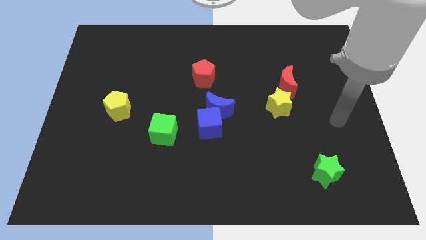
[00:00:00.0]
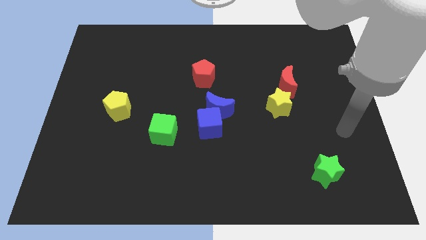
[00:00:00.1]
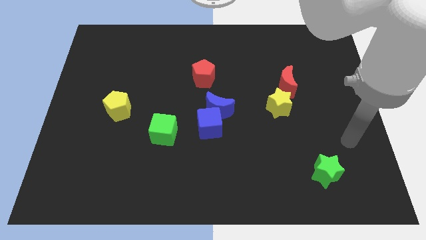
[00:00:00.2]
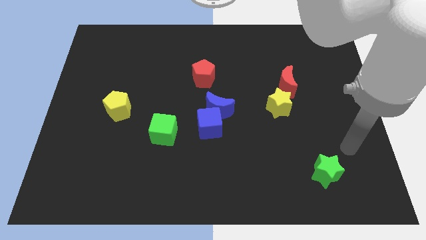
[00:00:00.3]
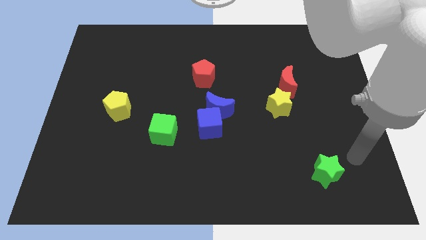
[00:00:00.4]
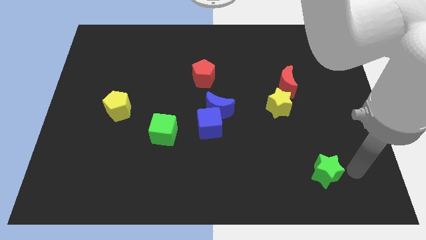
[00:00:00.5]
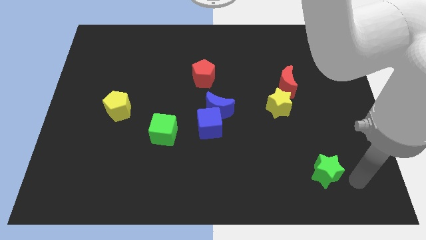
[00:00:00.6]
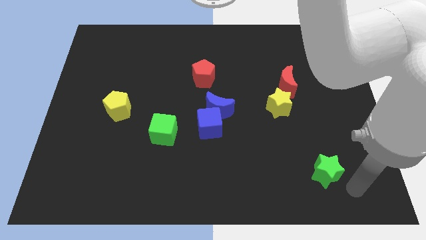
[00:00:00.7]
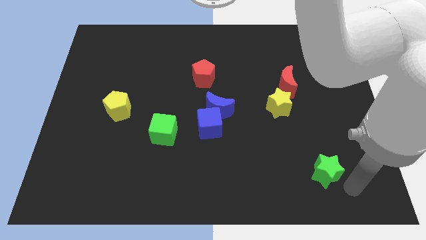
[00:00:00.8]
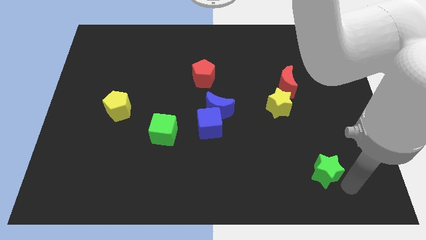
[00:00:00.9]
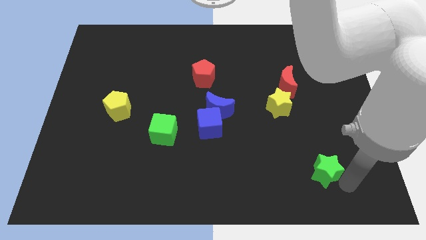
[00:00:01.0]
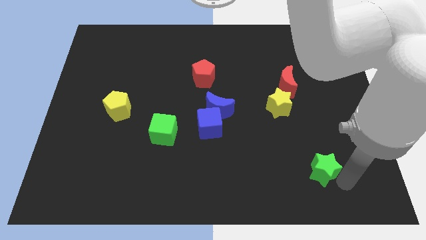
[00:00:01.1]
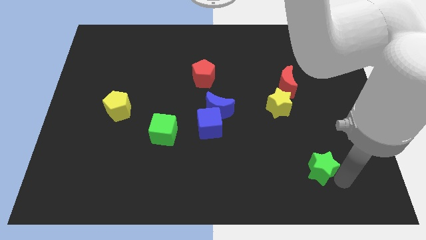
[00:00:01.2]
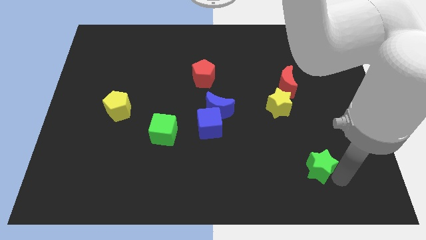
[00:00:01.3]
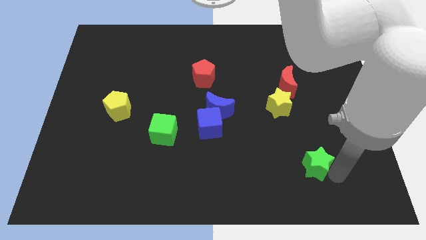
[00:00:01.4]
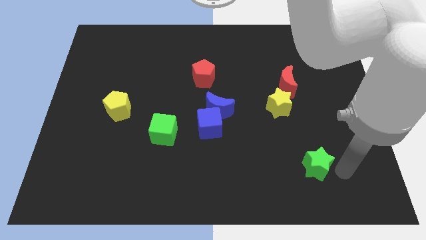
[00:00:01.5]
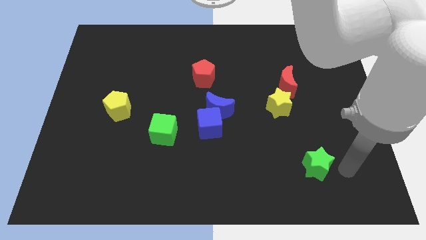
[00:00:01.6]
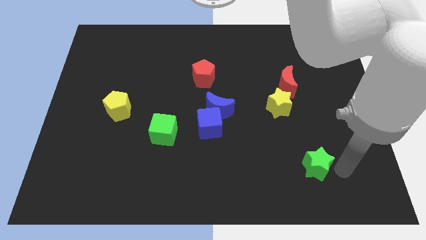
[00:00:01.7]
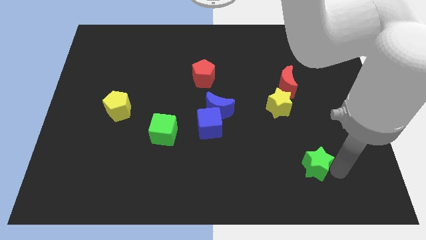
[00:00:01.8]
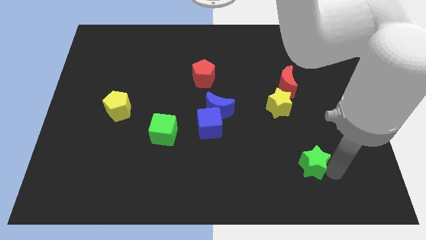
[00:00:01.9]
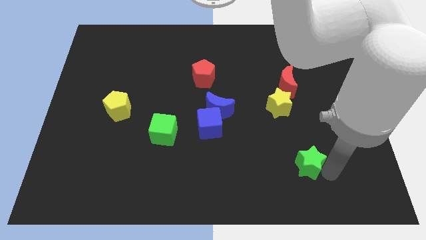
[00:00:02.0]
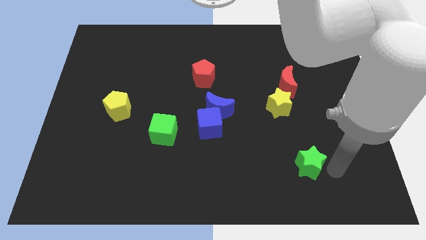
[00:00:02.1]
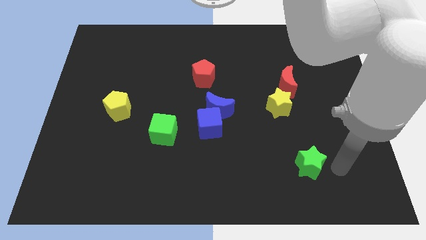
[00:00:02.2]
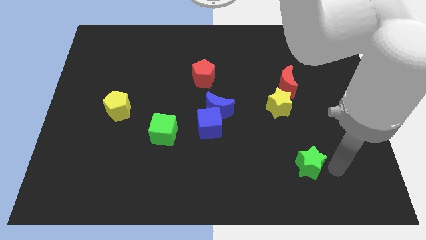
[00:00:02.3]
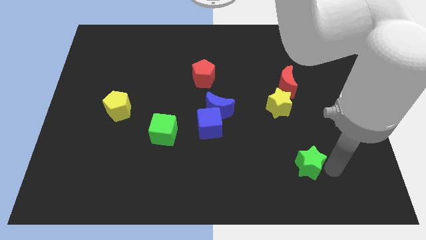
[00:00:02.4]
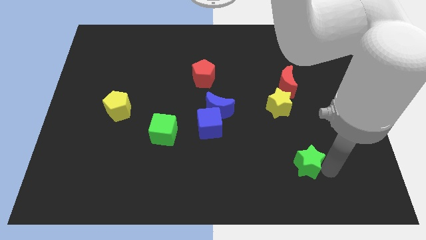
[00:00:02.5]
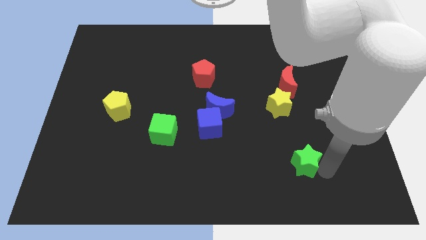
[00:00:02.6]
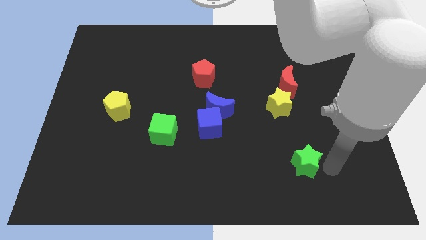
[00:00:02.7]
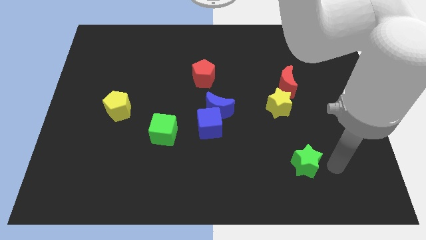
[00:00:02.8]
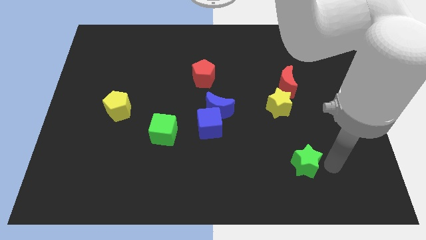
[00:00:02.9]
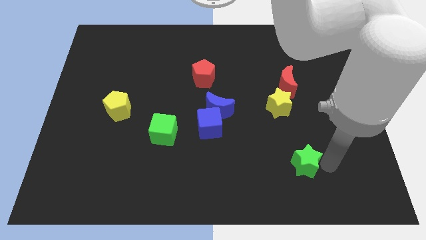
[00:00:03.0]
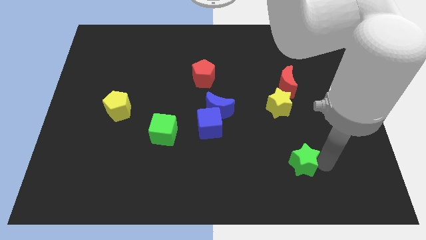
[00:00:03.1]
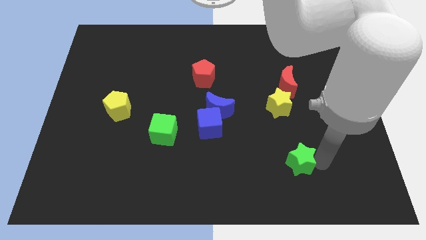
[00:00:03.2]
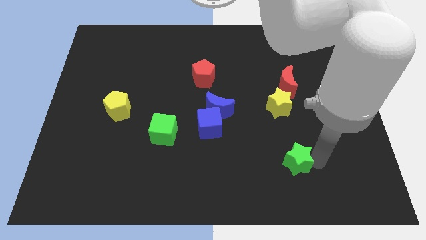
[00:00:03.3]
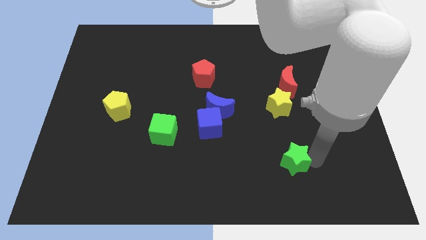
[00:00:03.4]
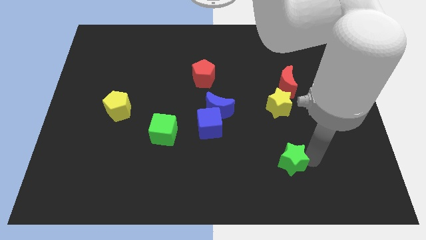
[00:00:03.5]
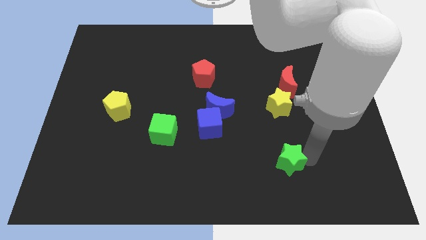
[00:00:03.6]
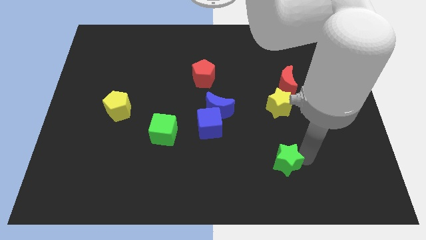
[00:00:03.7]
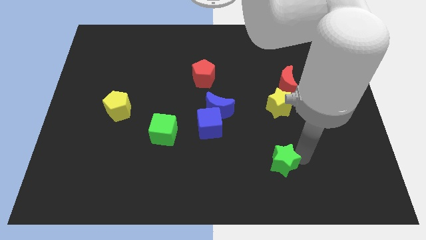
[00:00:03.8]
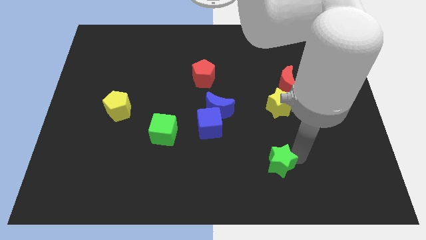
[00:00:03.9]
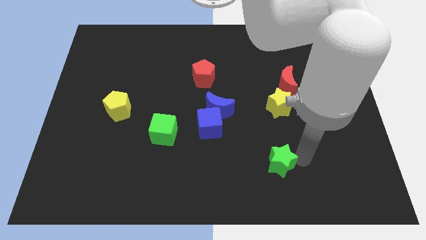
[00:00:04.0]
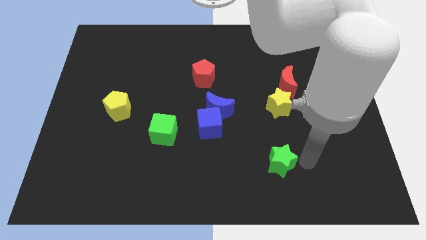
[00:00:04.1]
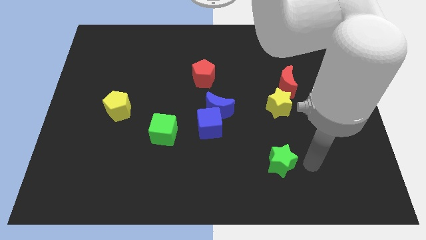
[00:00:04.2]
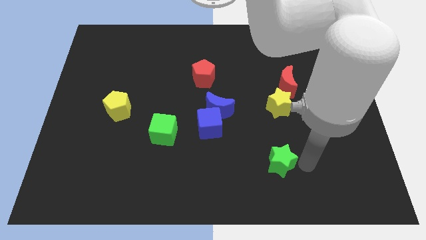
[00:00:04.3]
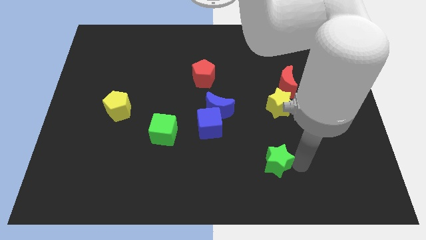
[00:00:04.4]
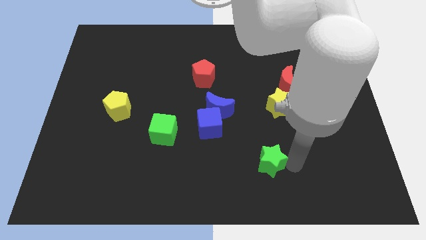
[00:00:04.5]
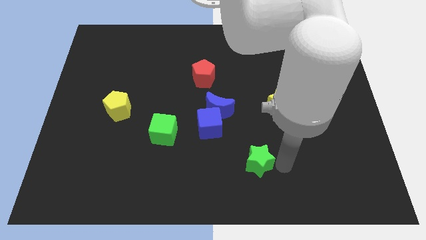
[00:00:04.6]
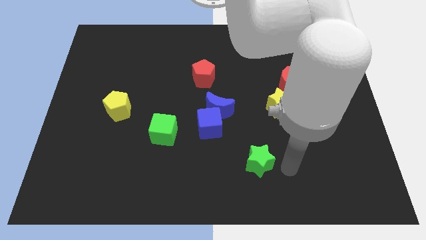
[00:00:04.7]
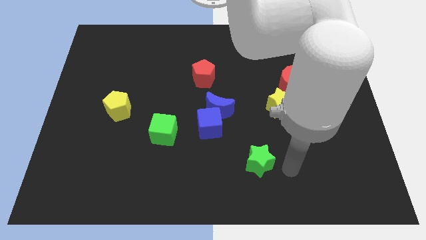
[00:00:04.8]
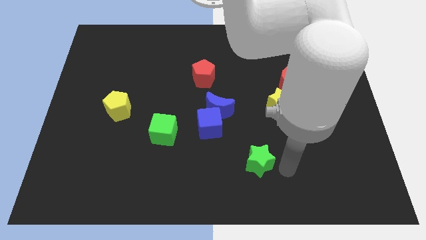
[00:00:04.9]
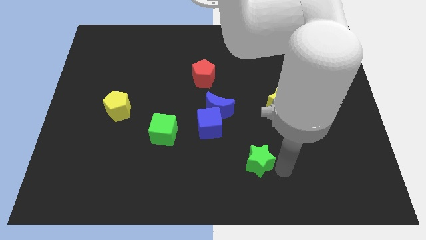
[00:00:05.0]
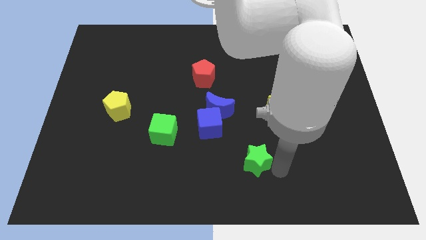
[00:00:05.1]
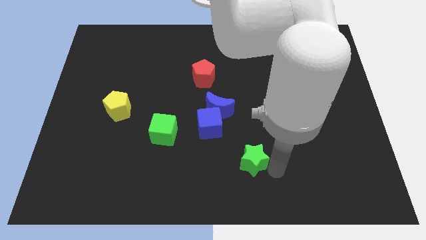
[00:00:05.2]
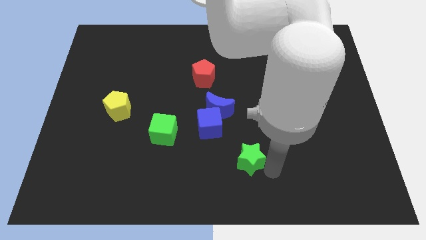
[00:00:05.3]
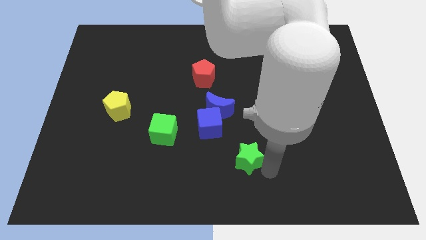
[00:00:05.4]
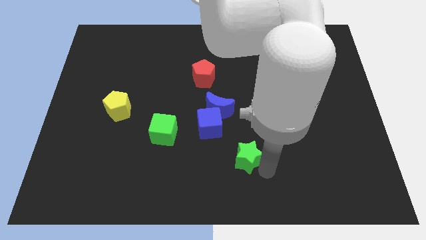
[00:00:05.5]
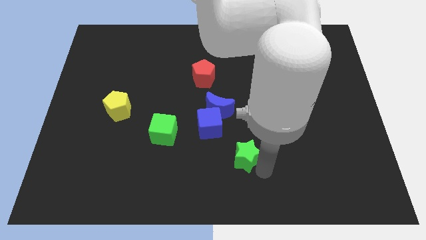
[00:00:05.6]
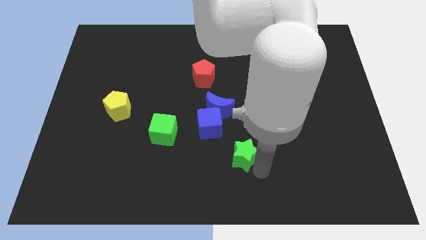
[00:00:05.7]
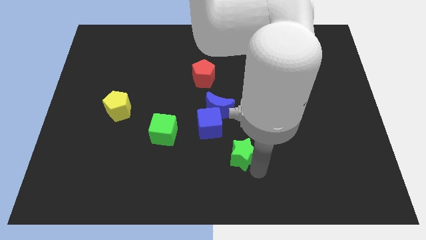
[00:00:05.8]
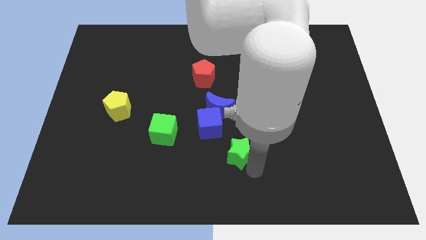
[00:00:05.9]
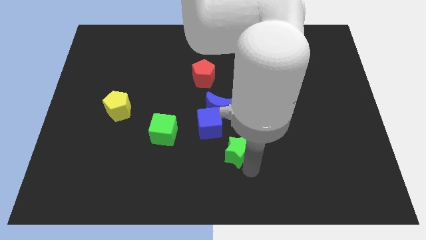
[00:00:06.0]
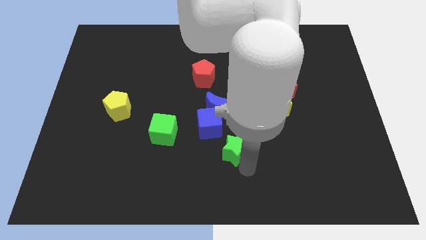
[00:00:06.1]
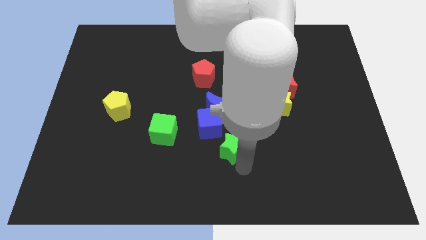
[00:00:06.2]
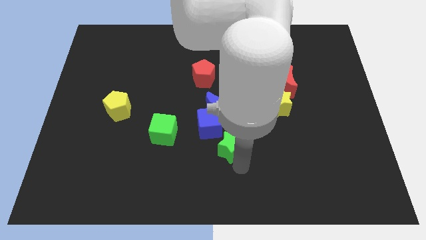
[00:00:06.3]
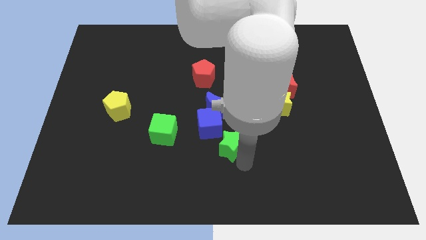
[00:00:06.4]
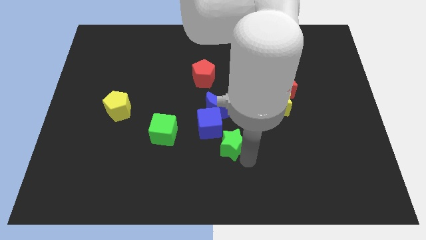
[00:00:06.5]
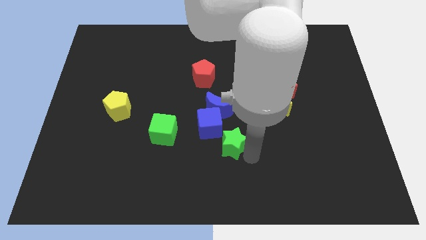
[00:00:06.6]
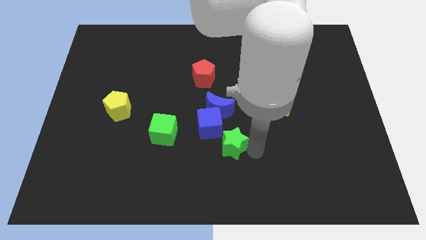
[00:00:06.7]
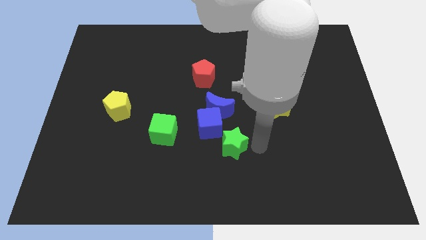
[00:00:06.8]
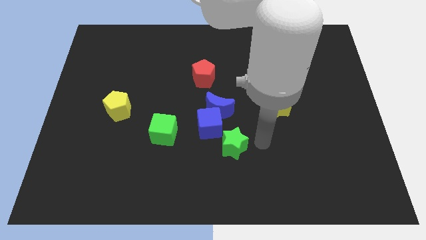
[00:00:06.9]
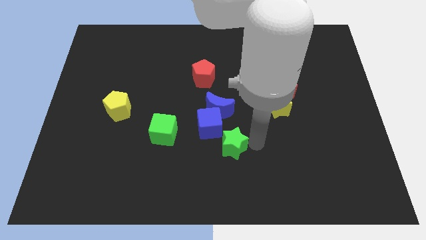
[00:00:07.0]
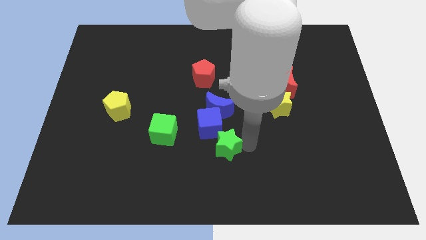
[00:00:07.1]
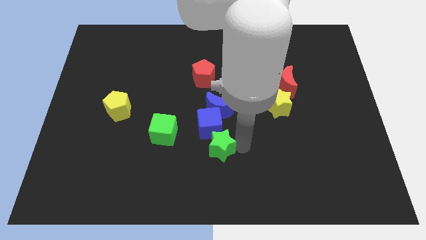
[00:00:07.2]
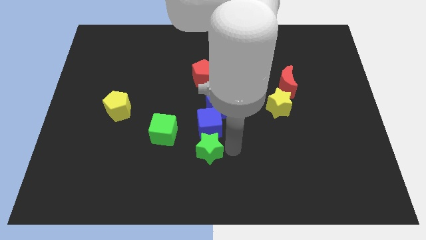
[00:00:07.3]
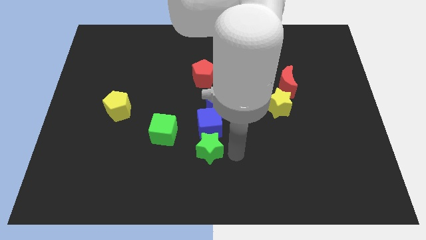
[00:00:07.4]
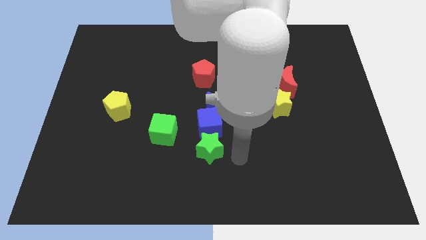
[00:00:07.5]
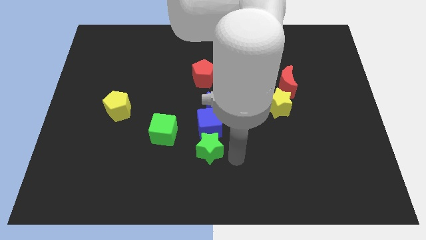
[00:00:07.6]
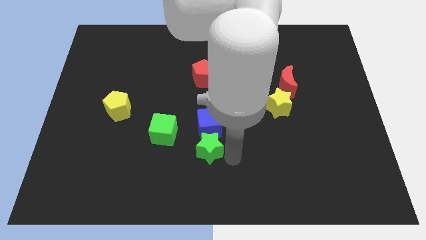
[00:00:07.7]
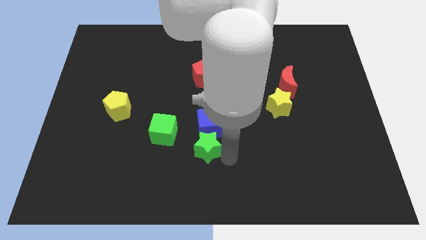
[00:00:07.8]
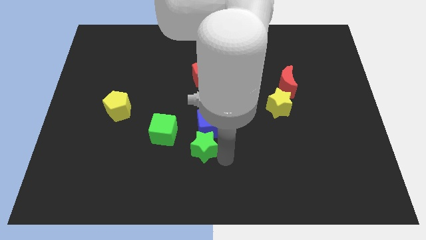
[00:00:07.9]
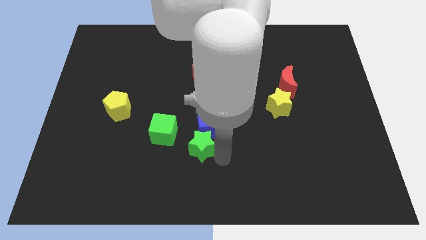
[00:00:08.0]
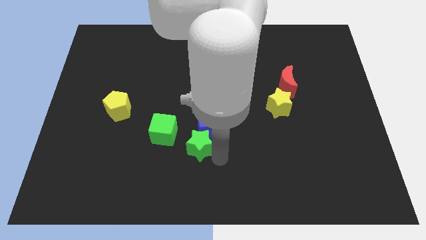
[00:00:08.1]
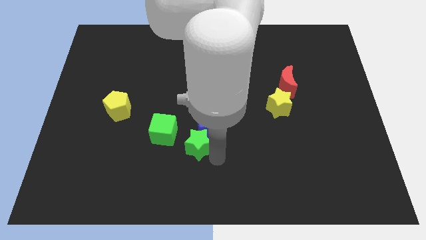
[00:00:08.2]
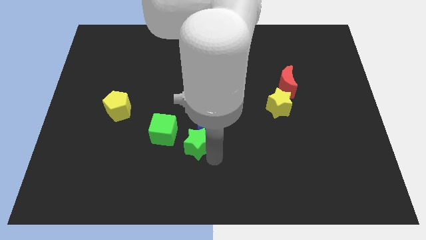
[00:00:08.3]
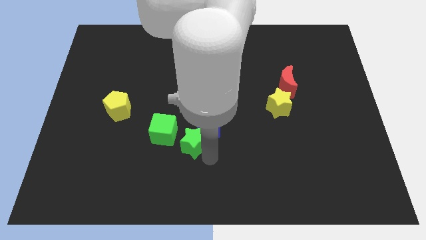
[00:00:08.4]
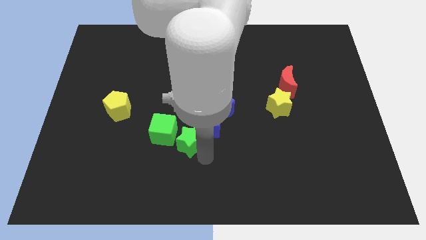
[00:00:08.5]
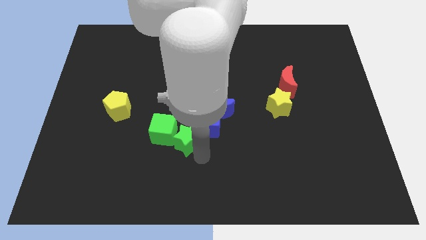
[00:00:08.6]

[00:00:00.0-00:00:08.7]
put the green star to the green cube
